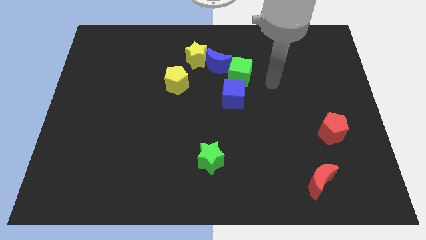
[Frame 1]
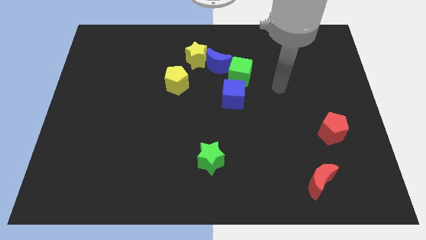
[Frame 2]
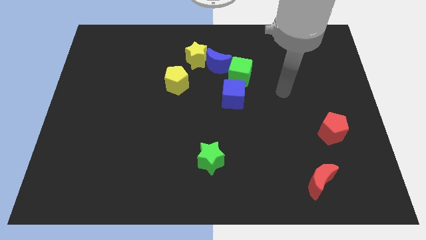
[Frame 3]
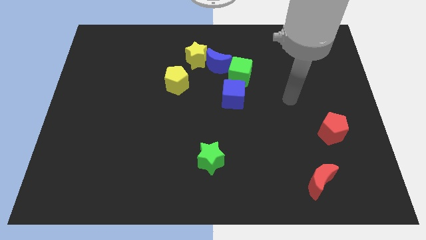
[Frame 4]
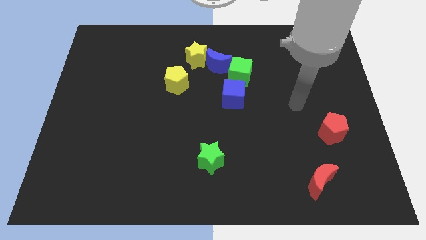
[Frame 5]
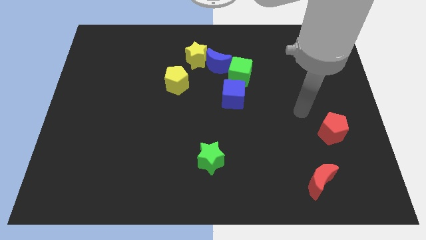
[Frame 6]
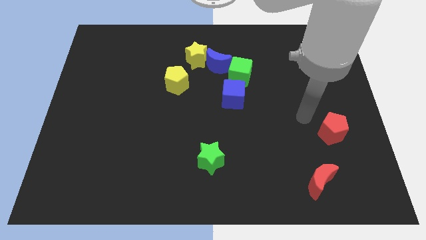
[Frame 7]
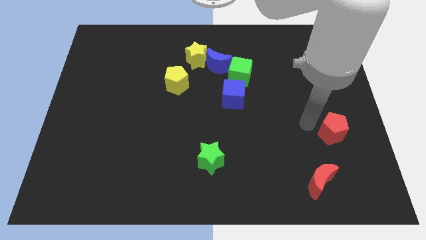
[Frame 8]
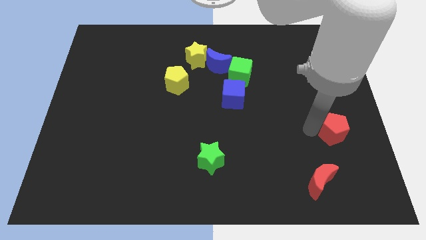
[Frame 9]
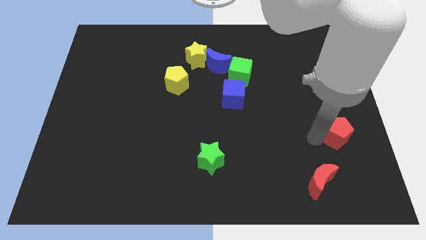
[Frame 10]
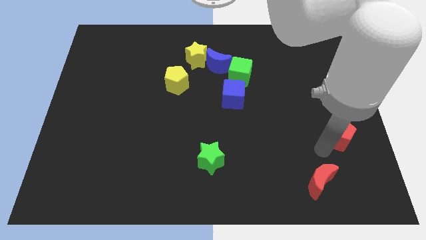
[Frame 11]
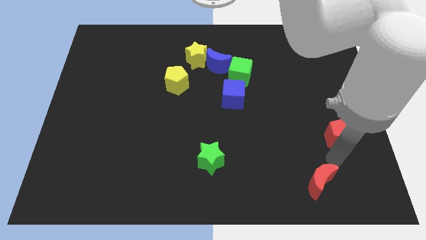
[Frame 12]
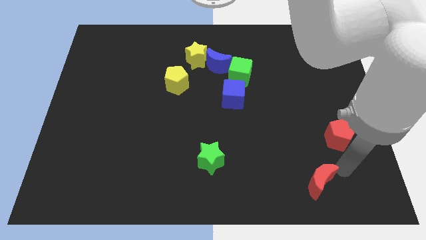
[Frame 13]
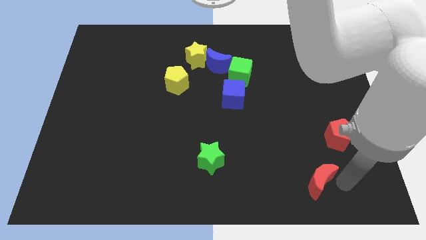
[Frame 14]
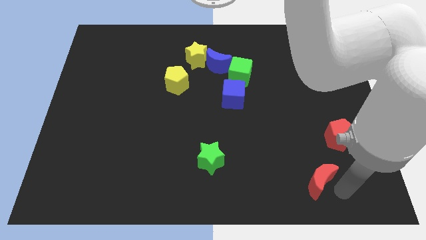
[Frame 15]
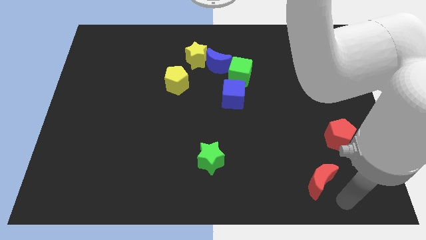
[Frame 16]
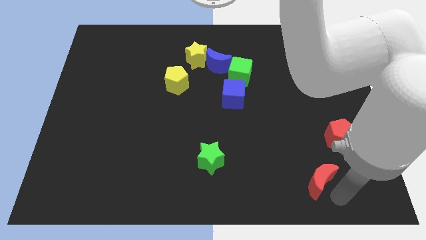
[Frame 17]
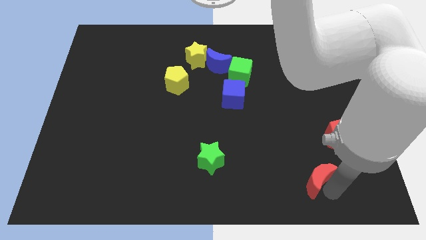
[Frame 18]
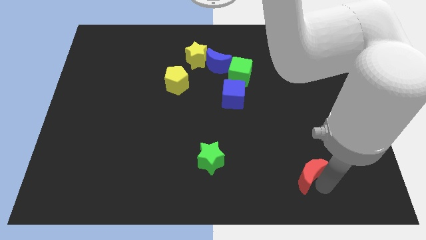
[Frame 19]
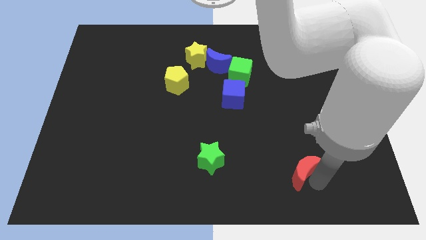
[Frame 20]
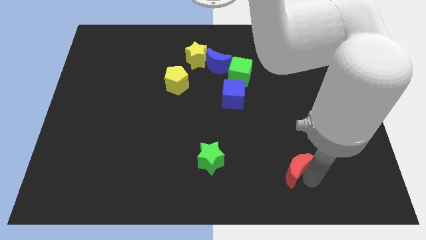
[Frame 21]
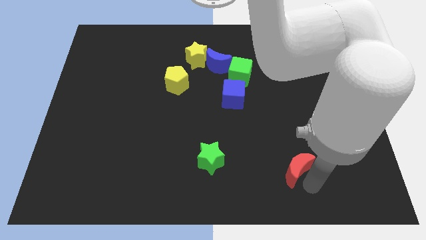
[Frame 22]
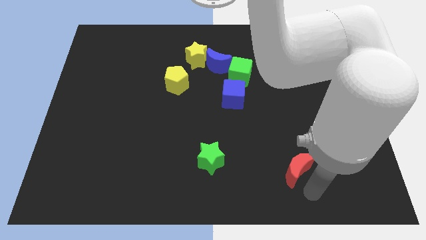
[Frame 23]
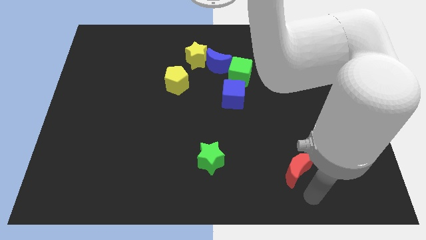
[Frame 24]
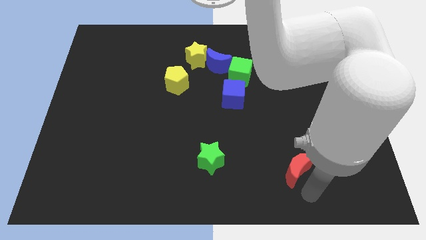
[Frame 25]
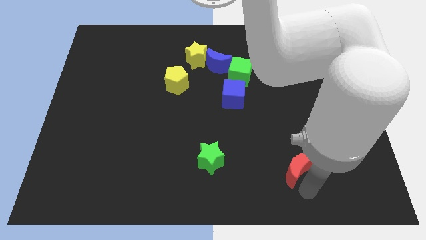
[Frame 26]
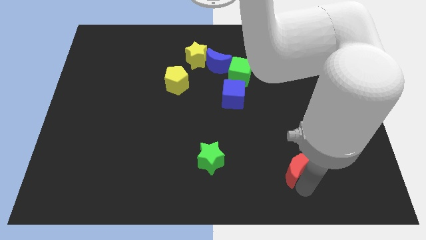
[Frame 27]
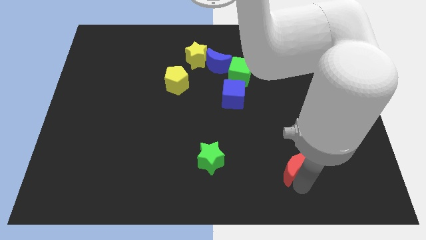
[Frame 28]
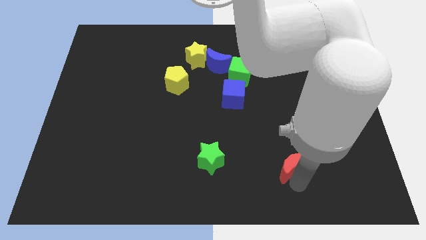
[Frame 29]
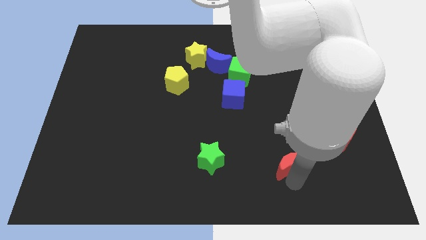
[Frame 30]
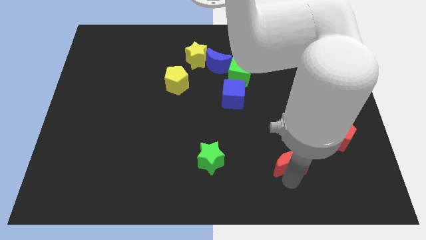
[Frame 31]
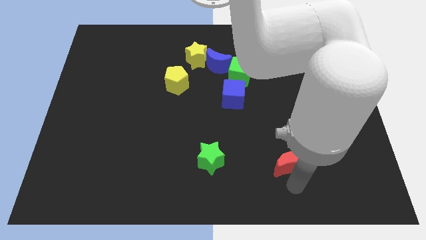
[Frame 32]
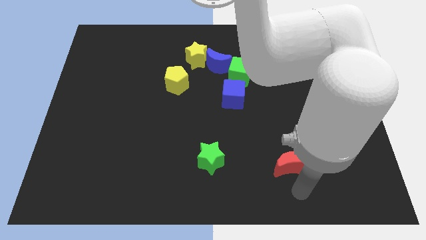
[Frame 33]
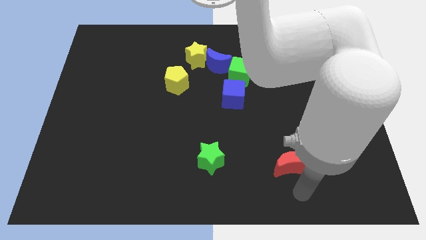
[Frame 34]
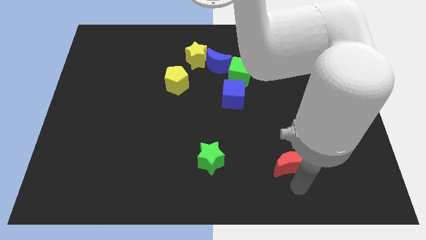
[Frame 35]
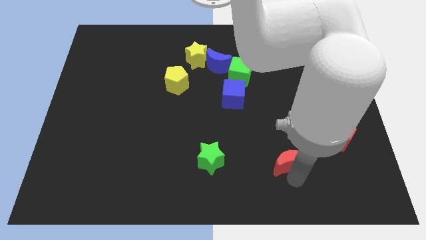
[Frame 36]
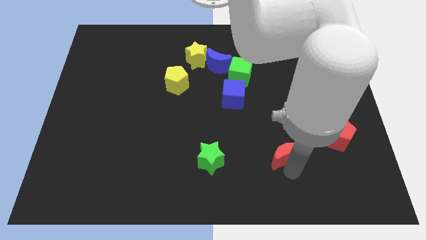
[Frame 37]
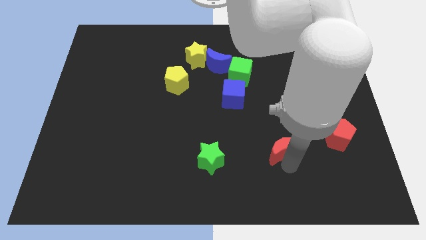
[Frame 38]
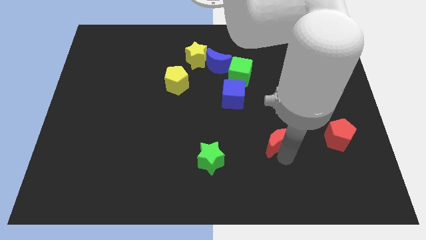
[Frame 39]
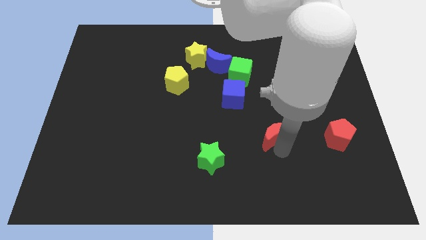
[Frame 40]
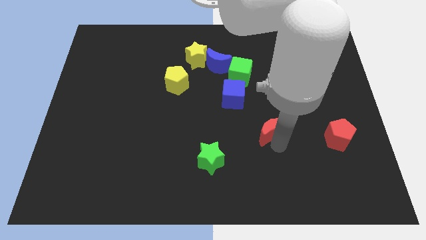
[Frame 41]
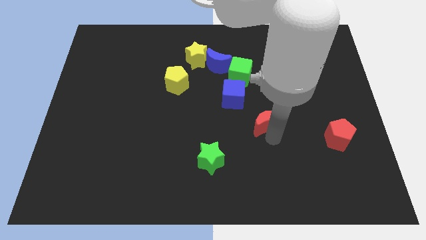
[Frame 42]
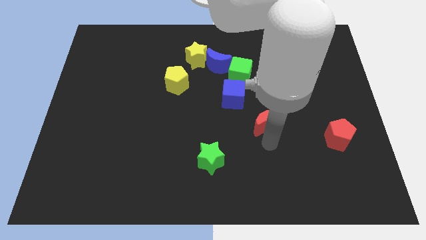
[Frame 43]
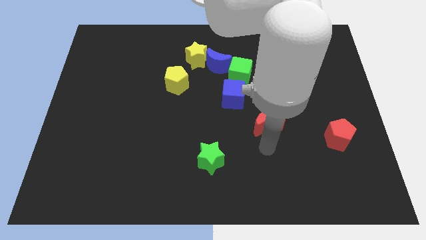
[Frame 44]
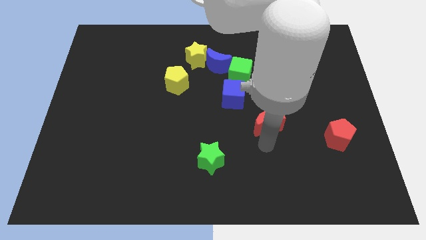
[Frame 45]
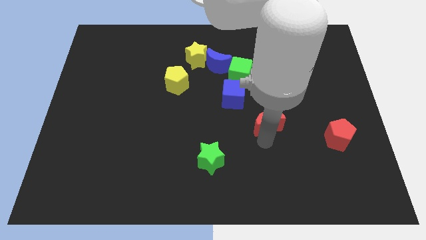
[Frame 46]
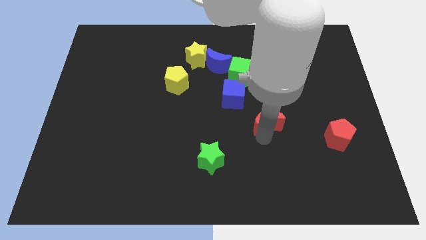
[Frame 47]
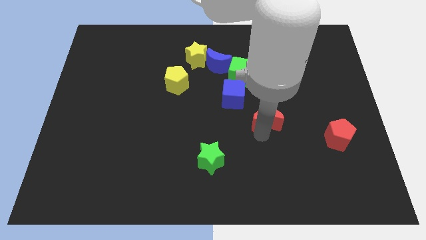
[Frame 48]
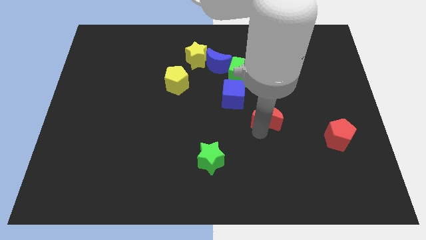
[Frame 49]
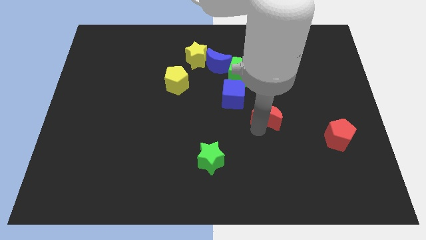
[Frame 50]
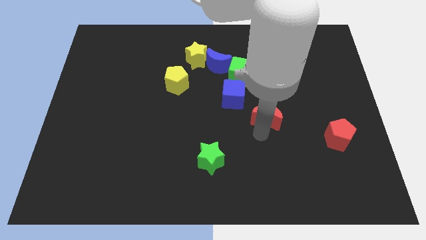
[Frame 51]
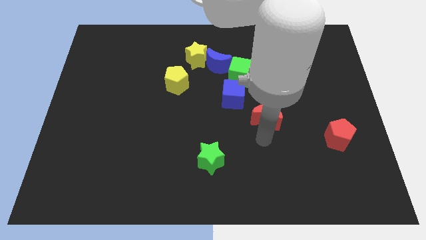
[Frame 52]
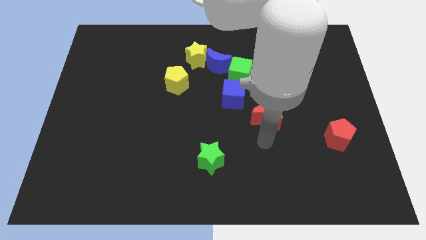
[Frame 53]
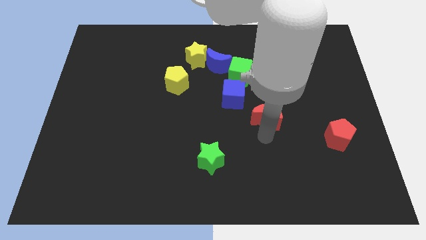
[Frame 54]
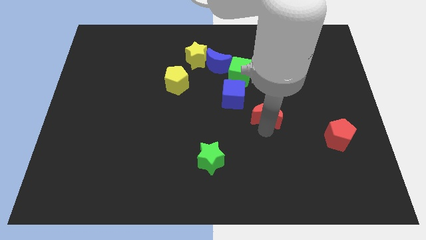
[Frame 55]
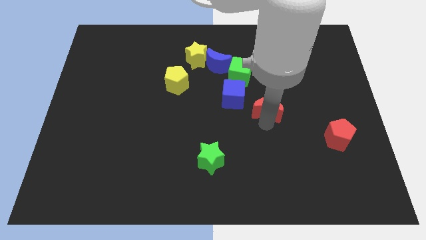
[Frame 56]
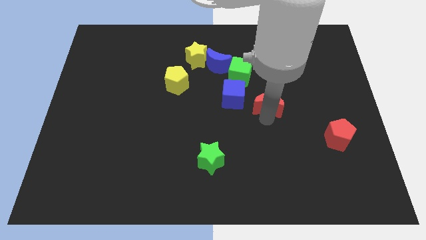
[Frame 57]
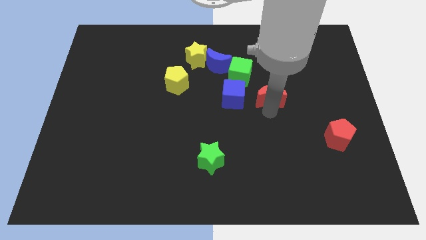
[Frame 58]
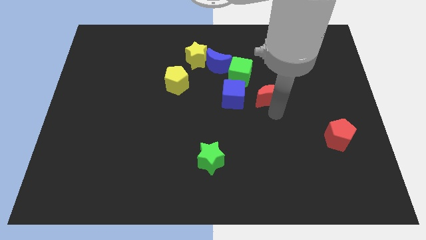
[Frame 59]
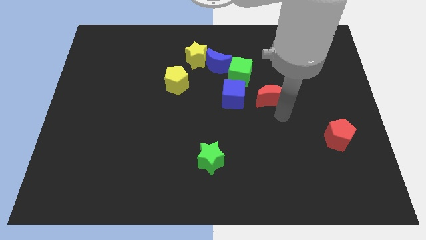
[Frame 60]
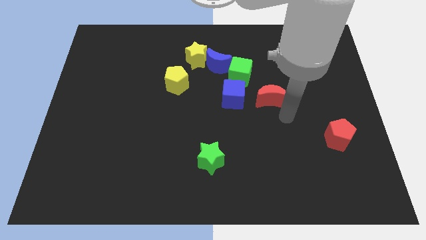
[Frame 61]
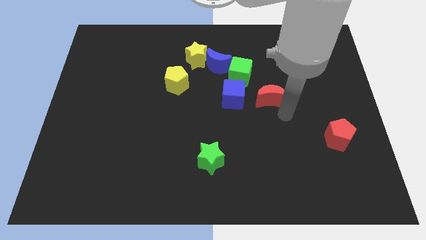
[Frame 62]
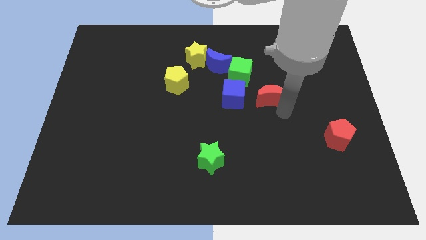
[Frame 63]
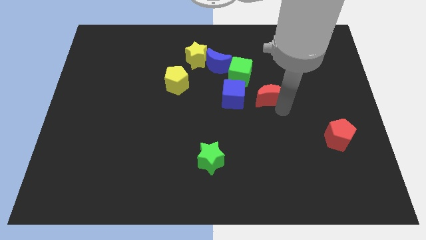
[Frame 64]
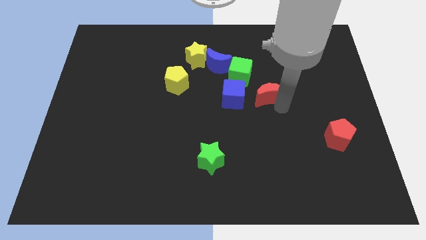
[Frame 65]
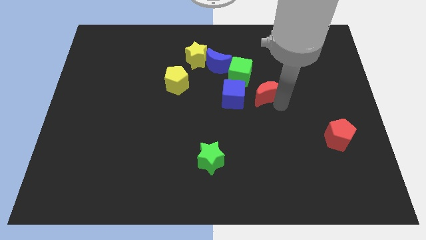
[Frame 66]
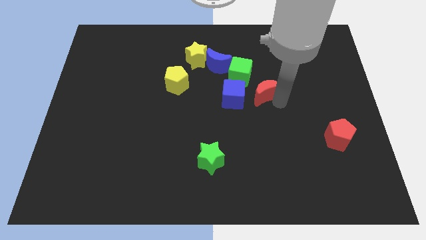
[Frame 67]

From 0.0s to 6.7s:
move the red moon to the top right side of the blue cube

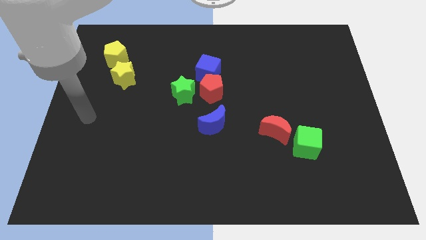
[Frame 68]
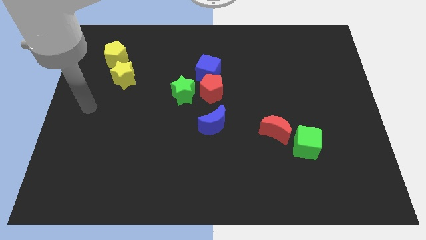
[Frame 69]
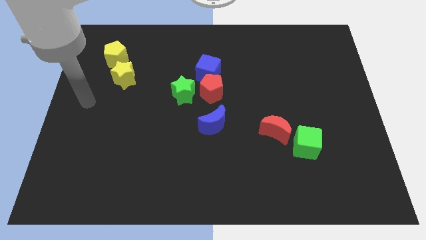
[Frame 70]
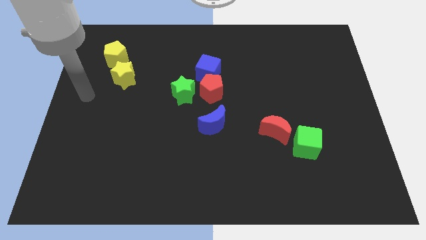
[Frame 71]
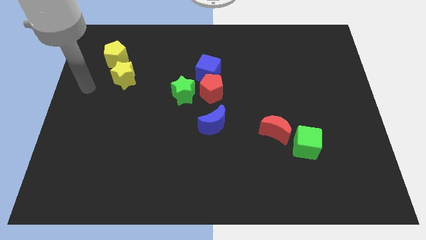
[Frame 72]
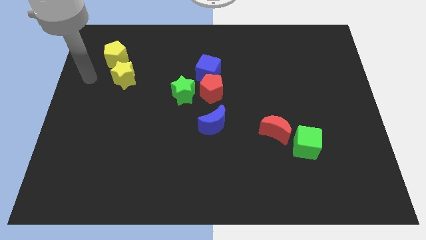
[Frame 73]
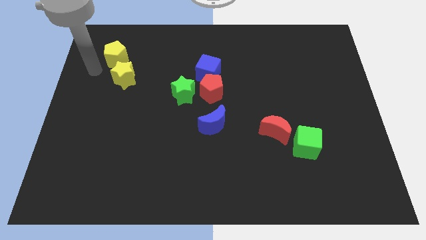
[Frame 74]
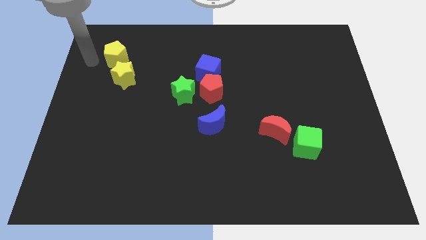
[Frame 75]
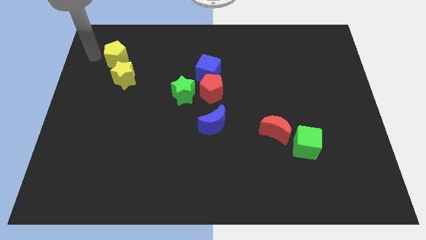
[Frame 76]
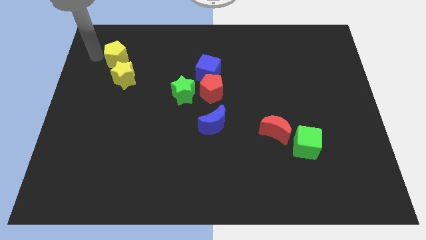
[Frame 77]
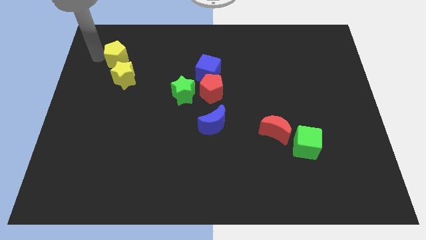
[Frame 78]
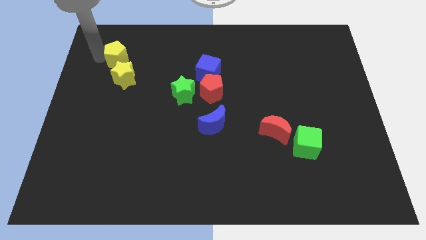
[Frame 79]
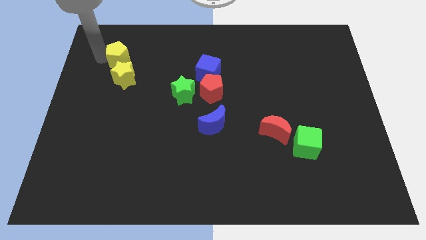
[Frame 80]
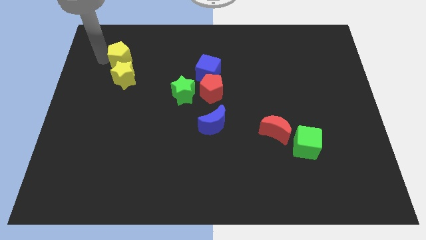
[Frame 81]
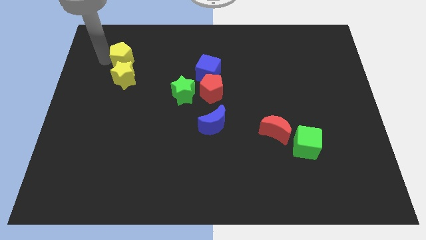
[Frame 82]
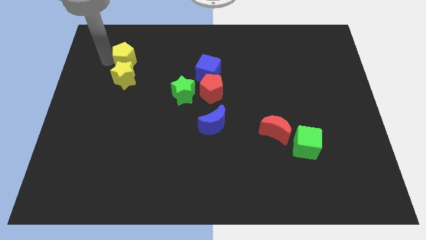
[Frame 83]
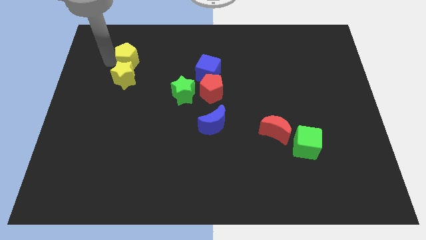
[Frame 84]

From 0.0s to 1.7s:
put the yellow pentagon to the top right side of the yellow star
